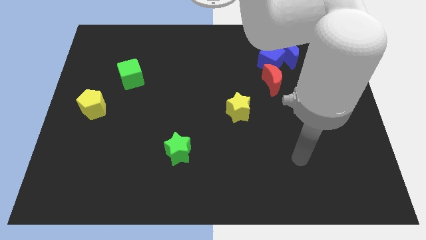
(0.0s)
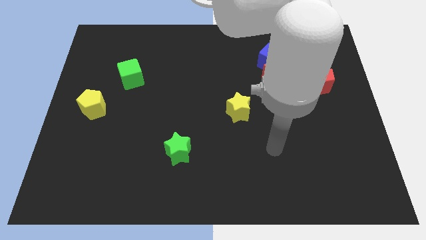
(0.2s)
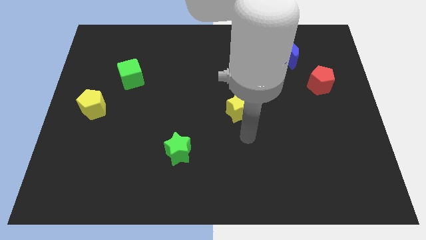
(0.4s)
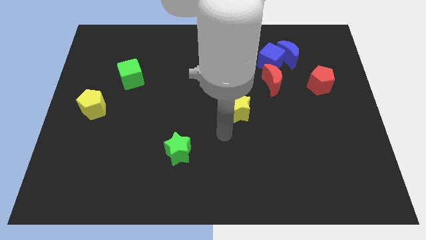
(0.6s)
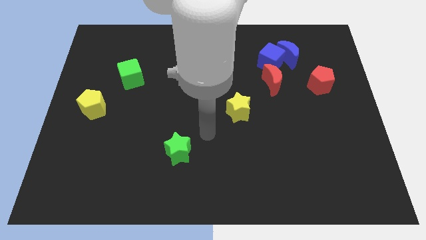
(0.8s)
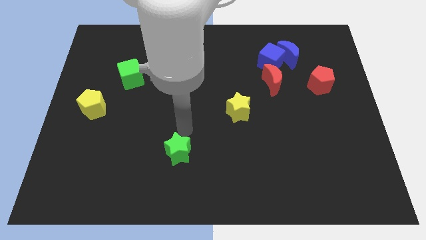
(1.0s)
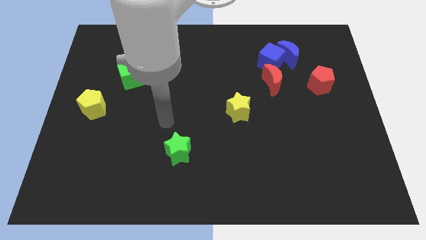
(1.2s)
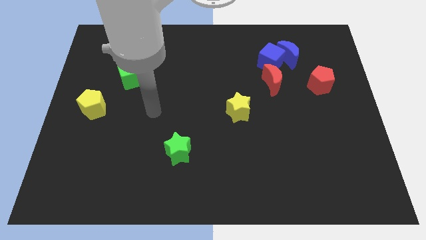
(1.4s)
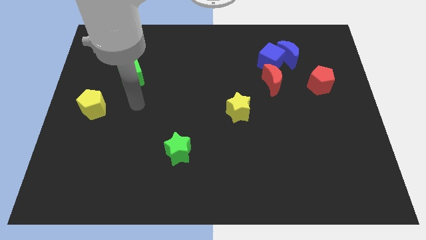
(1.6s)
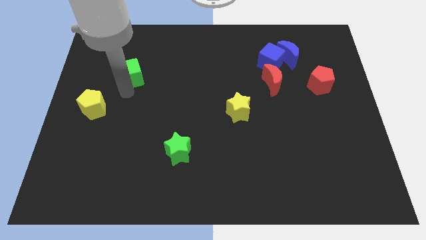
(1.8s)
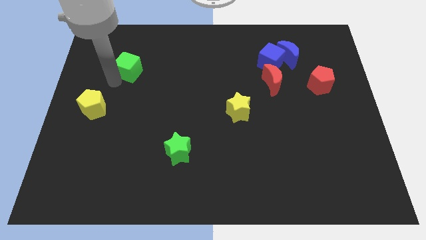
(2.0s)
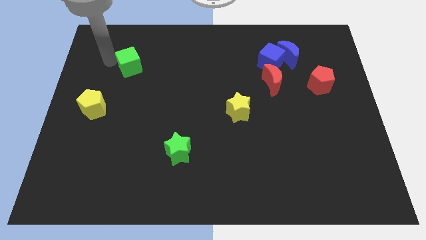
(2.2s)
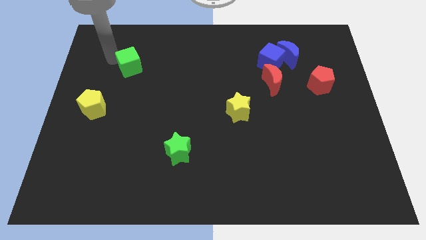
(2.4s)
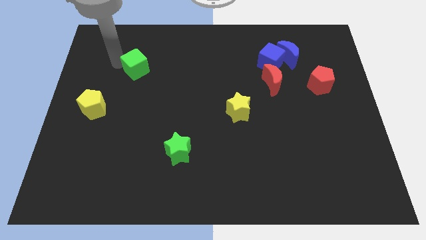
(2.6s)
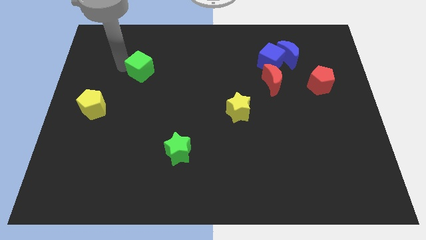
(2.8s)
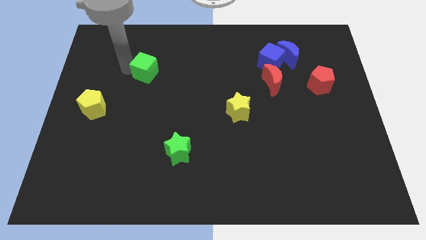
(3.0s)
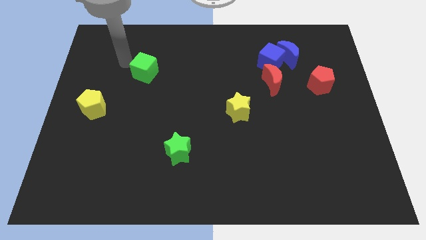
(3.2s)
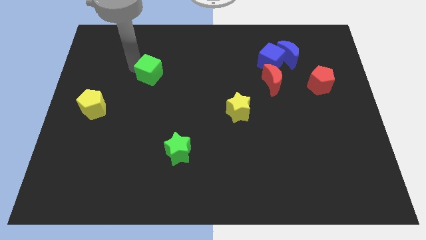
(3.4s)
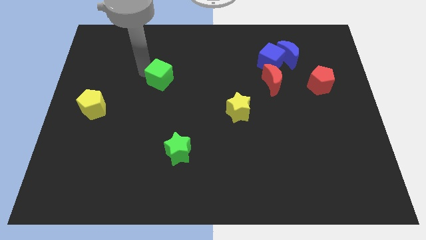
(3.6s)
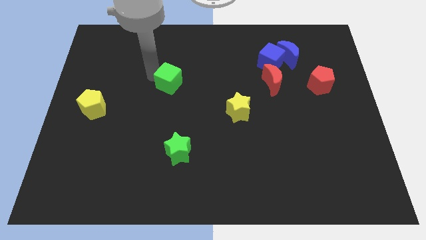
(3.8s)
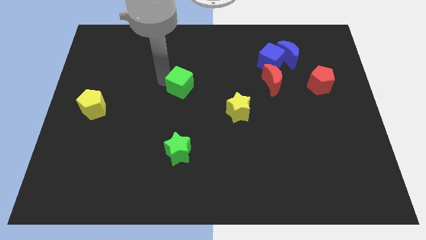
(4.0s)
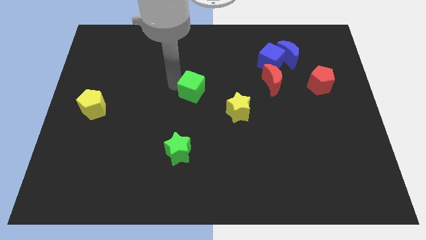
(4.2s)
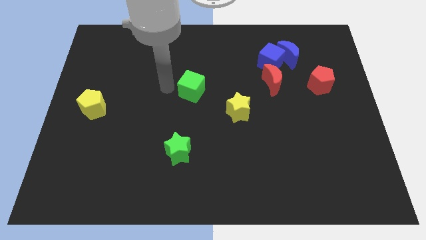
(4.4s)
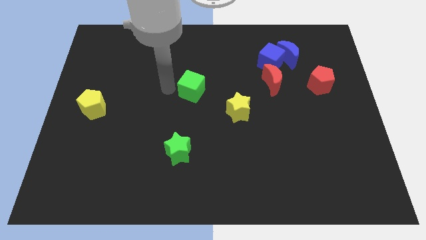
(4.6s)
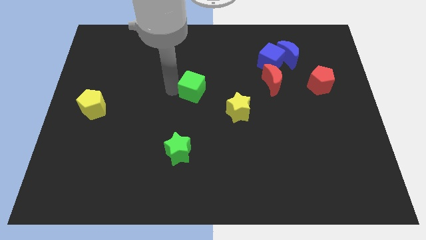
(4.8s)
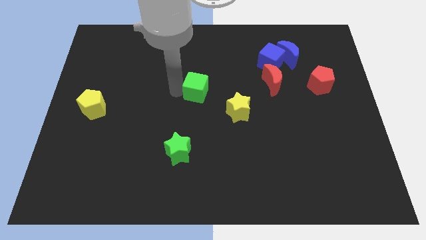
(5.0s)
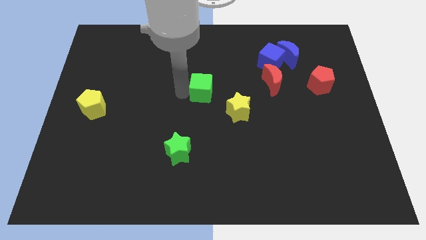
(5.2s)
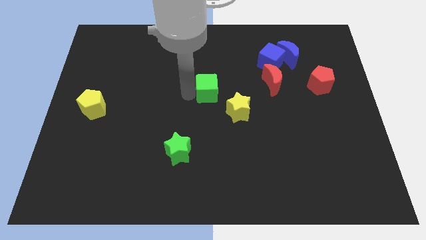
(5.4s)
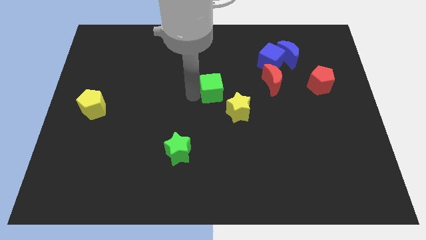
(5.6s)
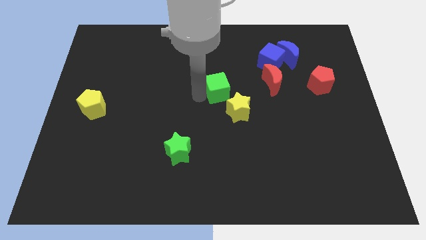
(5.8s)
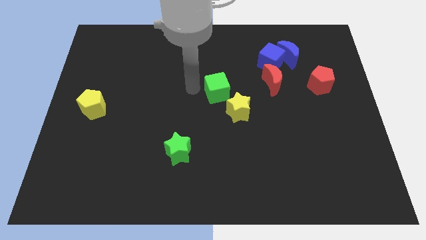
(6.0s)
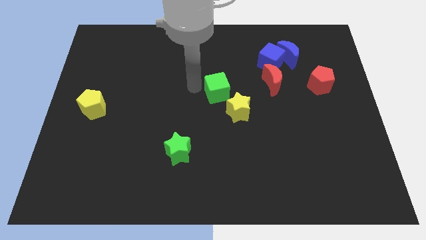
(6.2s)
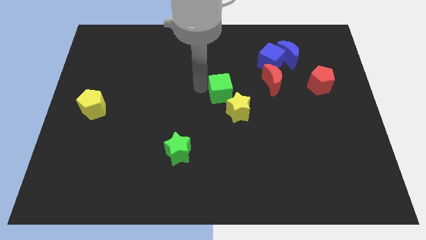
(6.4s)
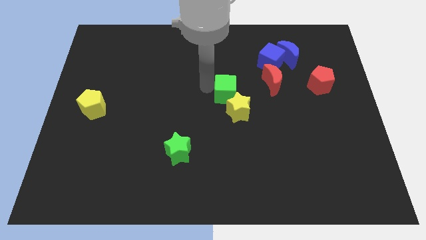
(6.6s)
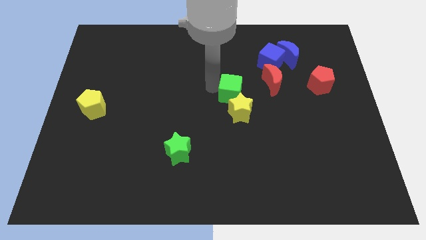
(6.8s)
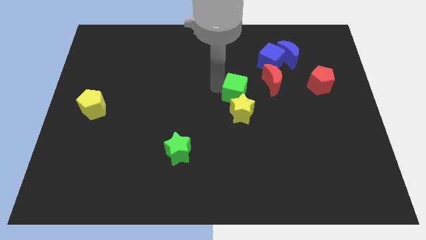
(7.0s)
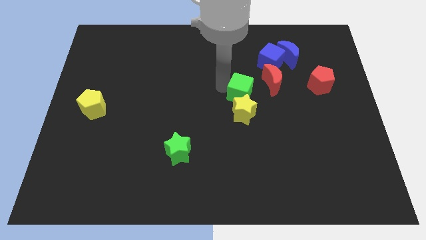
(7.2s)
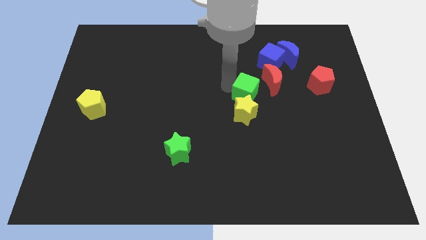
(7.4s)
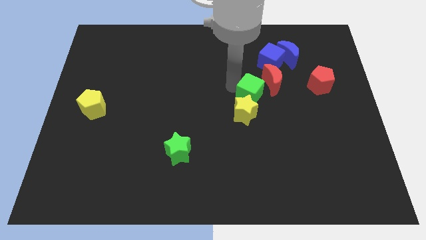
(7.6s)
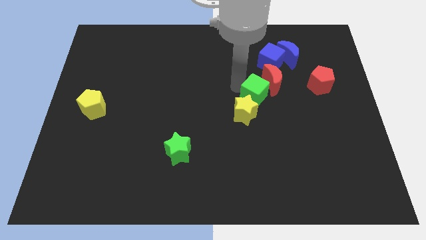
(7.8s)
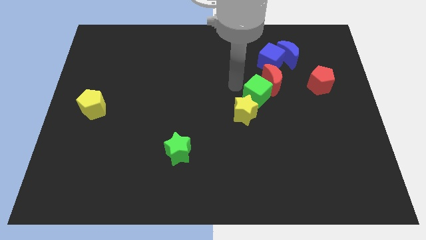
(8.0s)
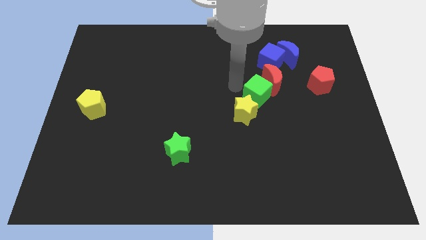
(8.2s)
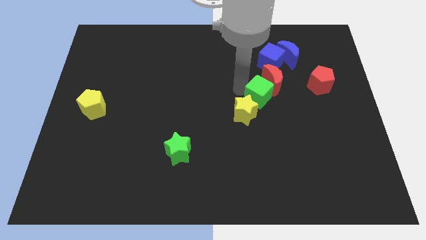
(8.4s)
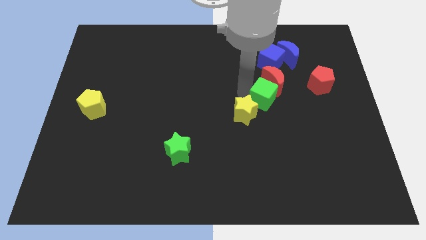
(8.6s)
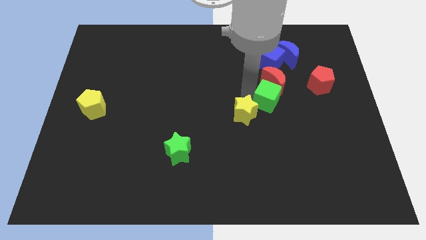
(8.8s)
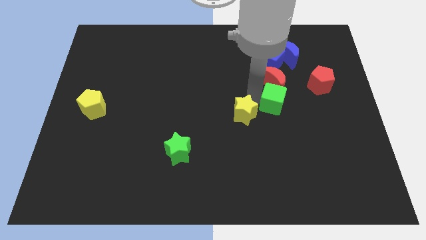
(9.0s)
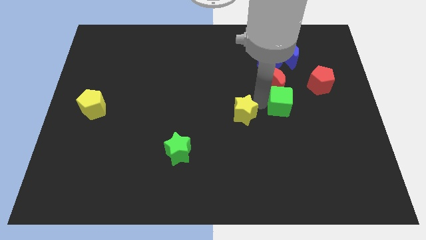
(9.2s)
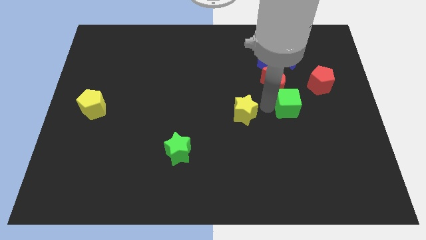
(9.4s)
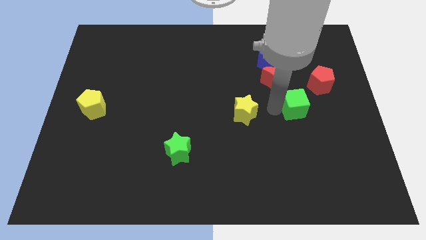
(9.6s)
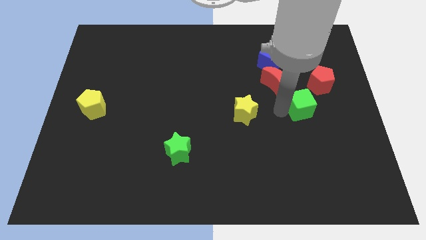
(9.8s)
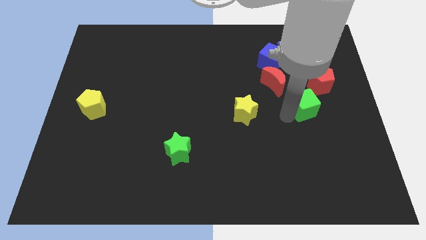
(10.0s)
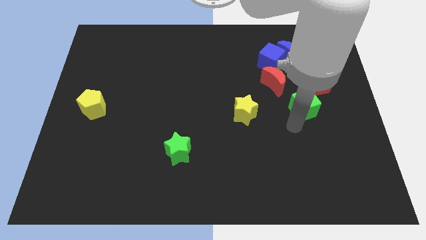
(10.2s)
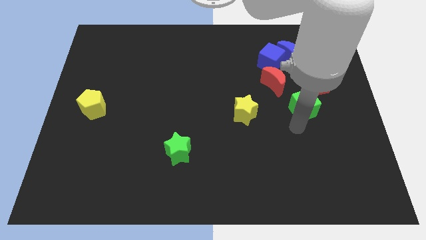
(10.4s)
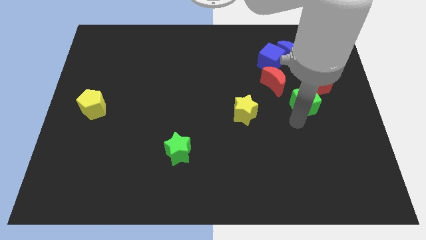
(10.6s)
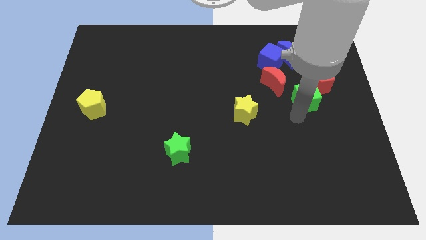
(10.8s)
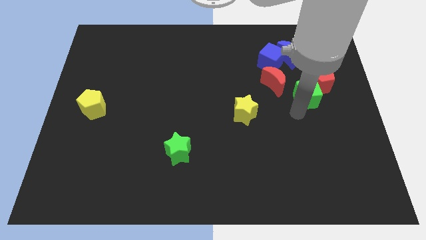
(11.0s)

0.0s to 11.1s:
slide the green cube next to the red pentagon

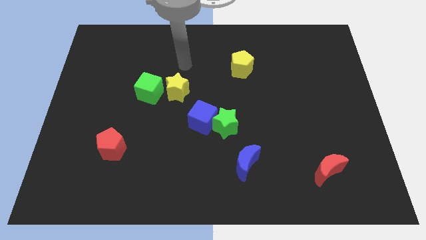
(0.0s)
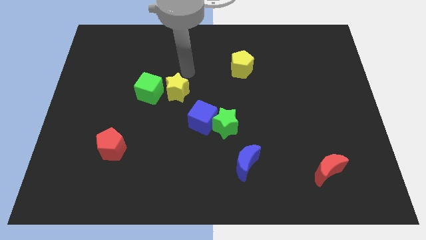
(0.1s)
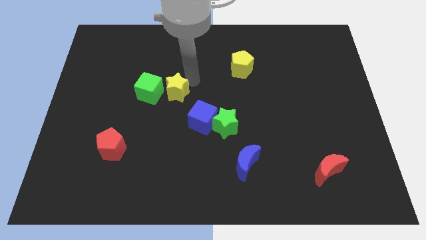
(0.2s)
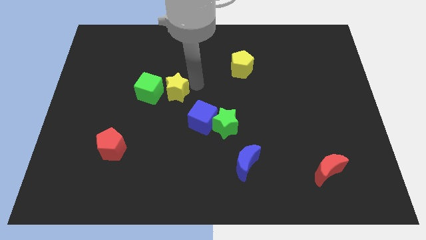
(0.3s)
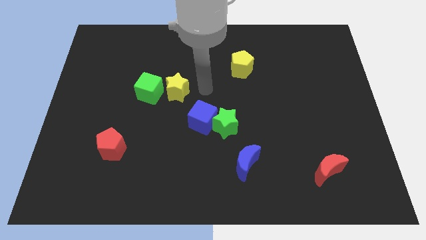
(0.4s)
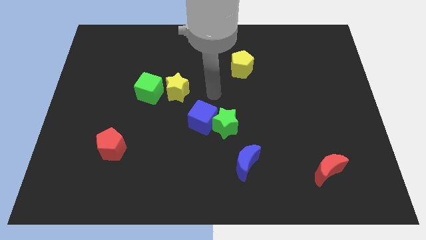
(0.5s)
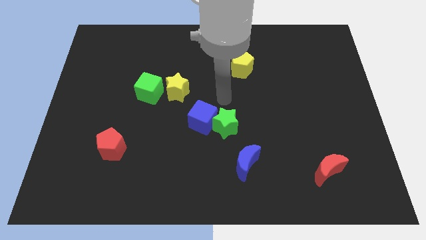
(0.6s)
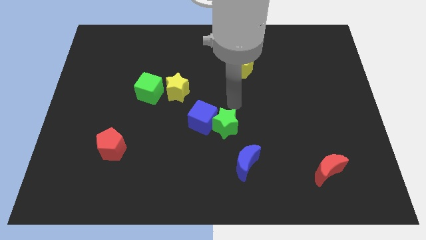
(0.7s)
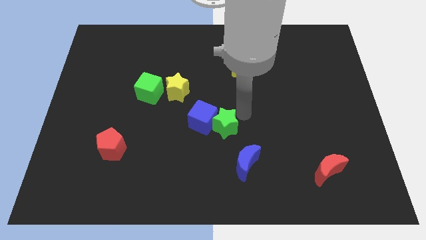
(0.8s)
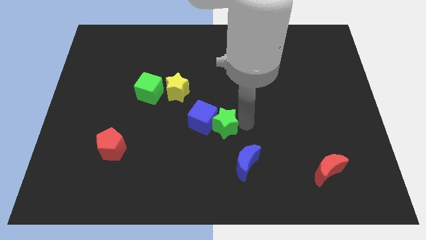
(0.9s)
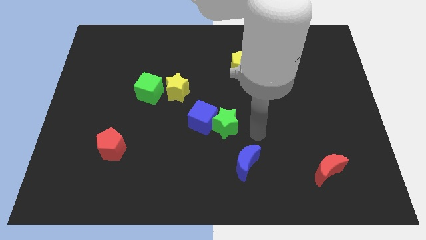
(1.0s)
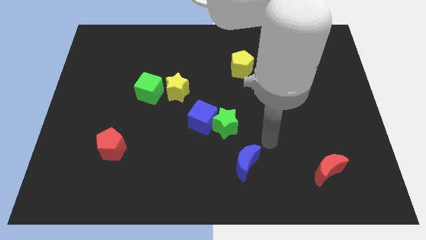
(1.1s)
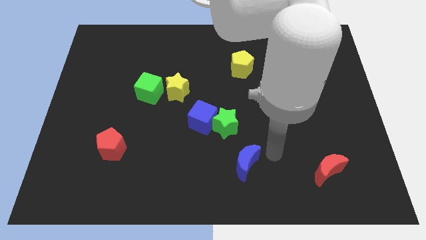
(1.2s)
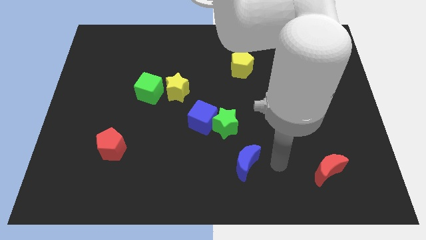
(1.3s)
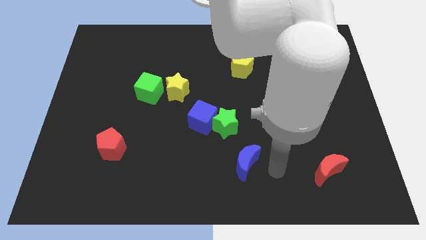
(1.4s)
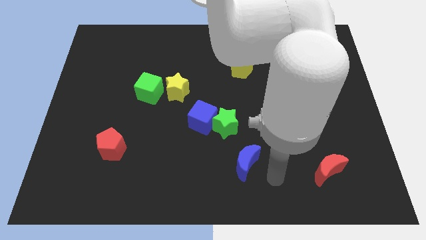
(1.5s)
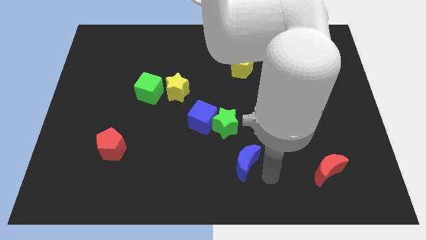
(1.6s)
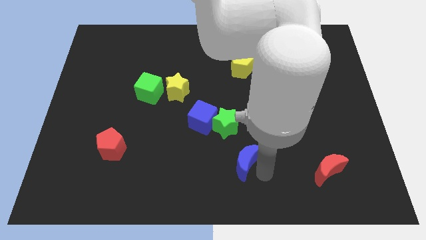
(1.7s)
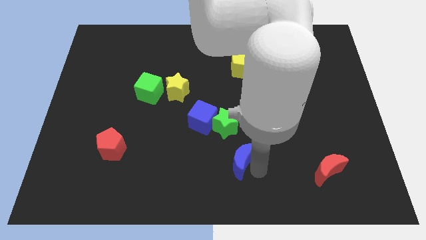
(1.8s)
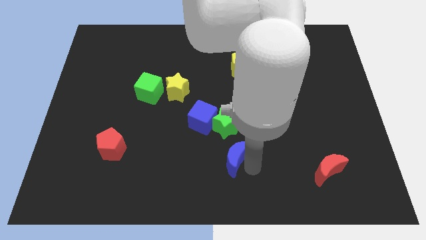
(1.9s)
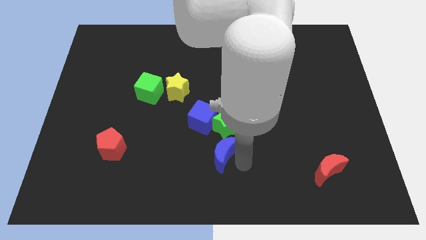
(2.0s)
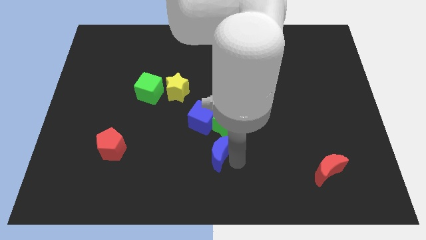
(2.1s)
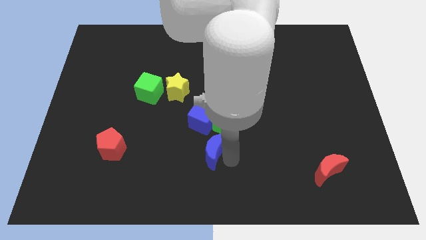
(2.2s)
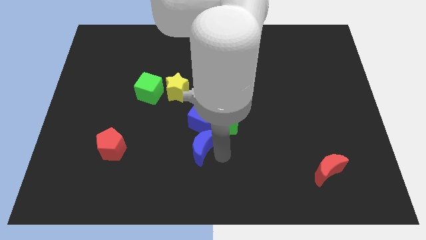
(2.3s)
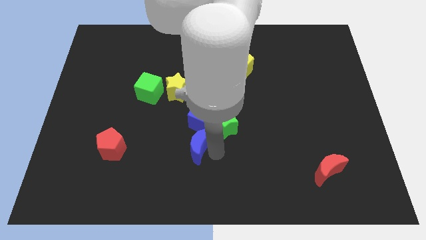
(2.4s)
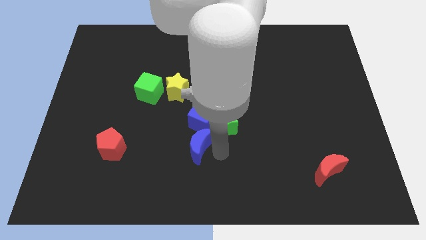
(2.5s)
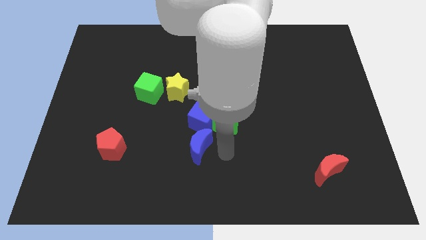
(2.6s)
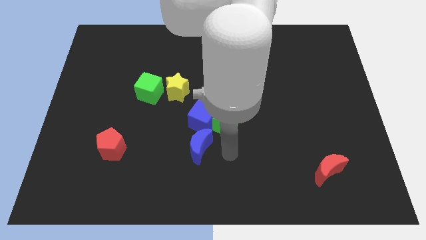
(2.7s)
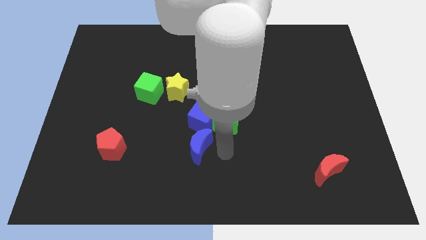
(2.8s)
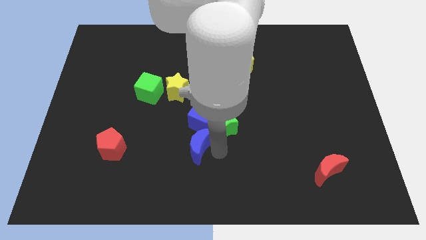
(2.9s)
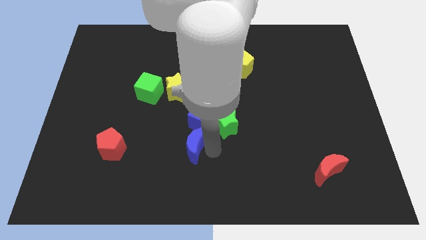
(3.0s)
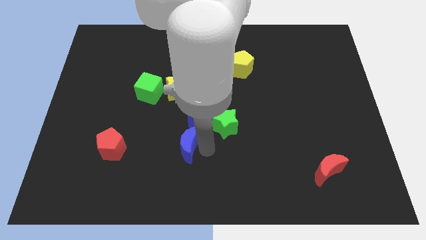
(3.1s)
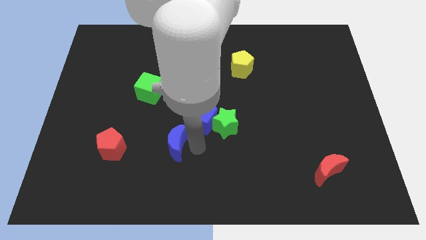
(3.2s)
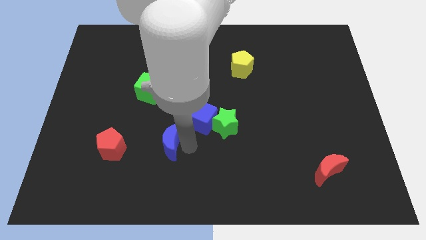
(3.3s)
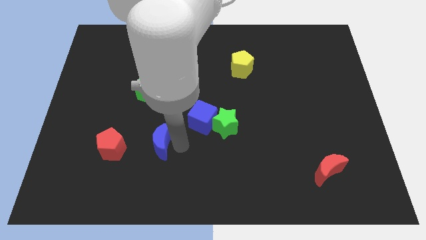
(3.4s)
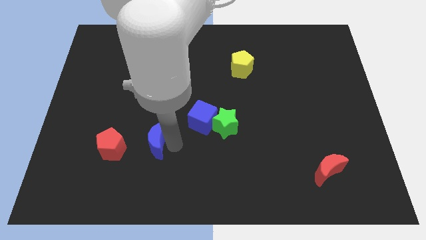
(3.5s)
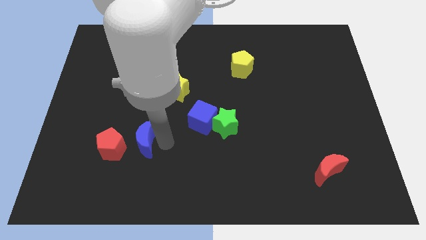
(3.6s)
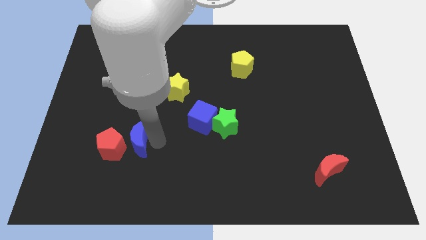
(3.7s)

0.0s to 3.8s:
slide the blue moon towards the red pentagon
